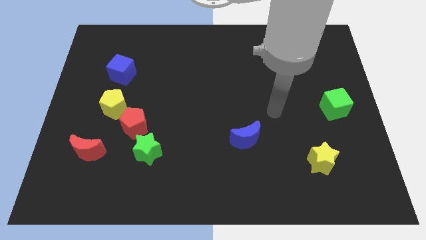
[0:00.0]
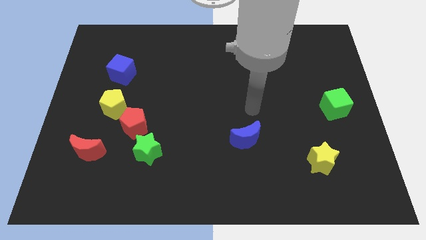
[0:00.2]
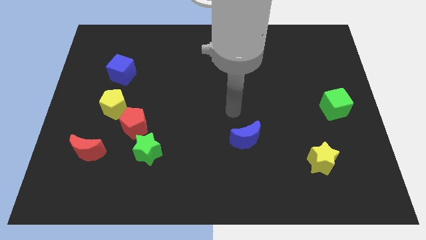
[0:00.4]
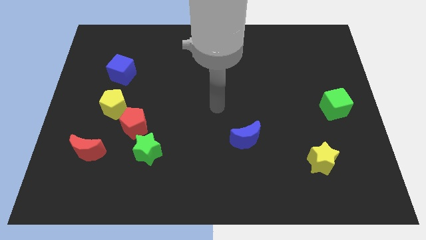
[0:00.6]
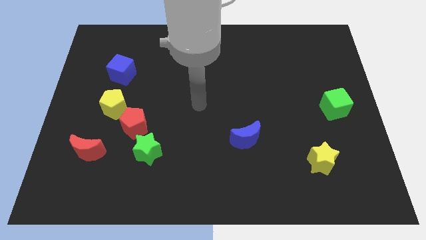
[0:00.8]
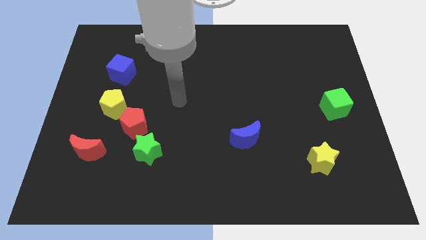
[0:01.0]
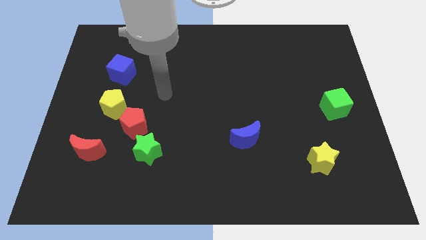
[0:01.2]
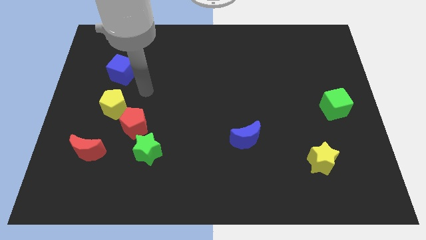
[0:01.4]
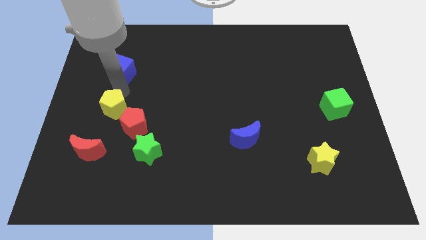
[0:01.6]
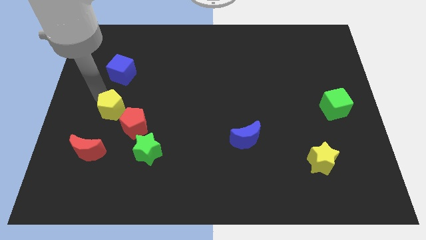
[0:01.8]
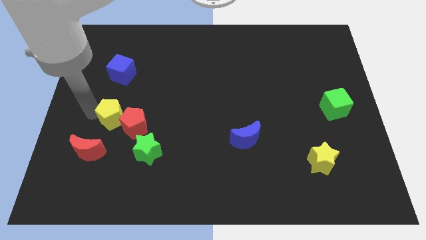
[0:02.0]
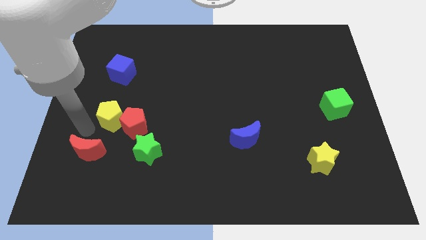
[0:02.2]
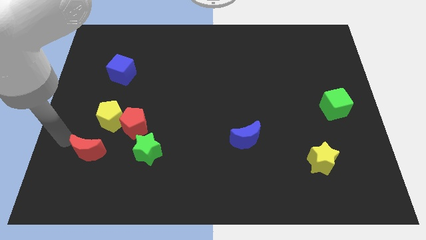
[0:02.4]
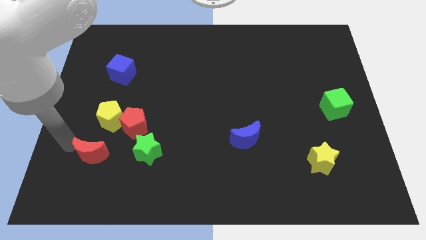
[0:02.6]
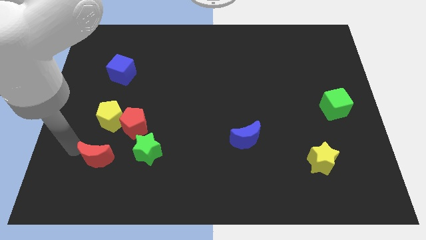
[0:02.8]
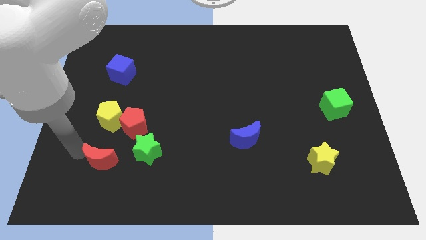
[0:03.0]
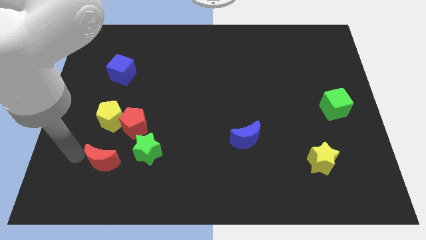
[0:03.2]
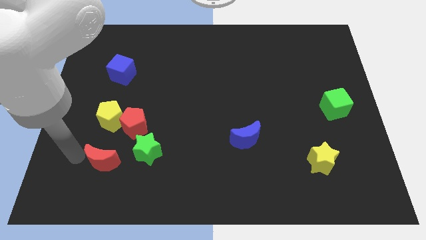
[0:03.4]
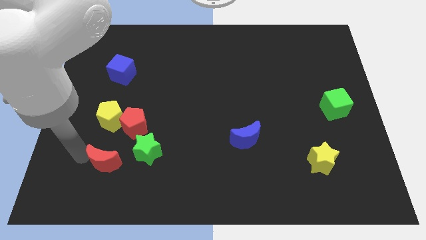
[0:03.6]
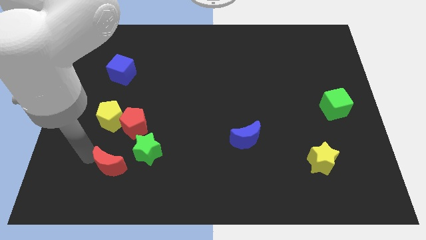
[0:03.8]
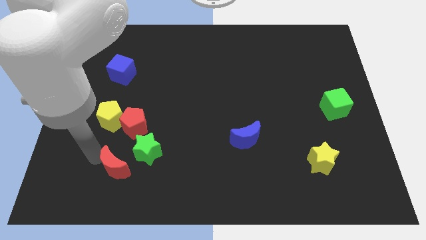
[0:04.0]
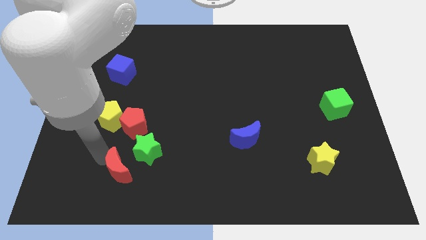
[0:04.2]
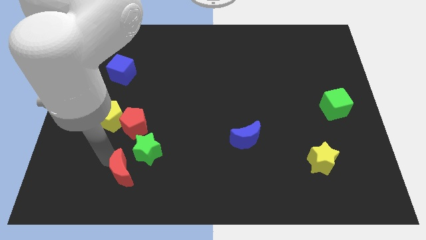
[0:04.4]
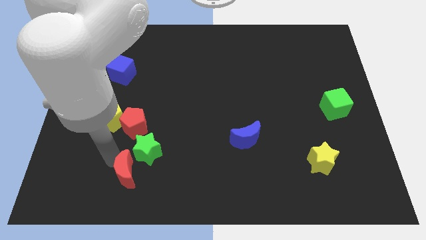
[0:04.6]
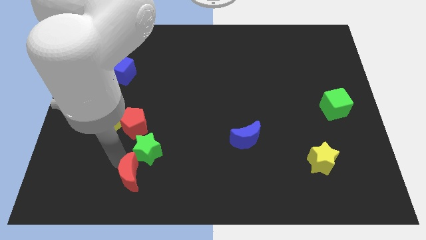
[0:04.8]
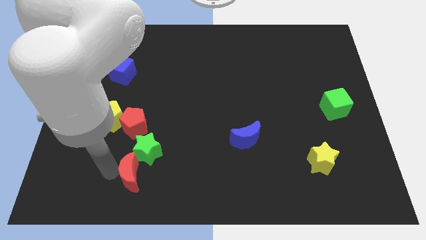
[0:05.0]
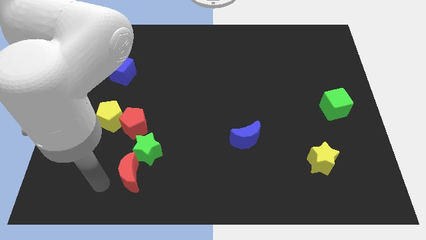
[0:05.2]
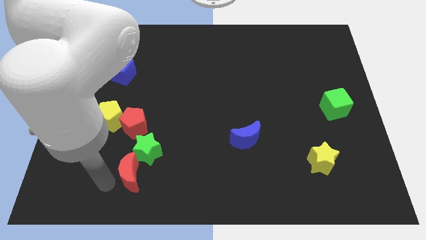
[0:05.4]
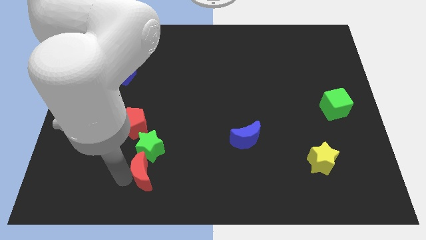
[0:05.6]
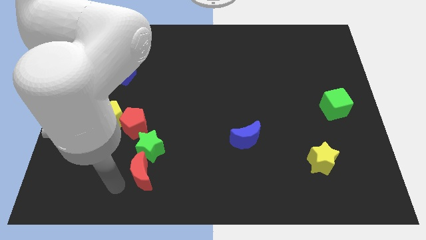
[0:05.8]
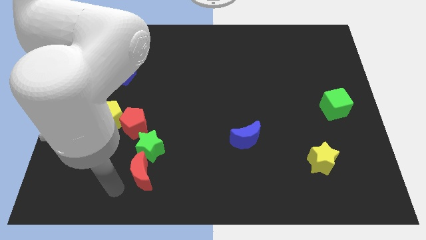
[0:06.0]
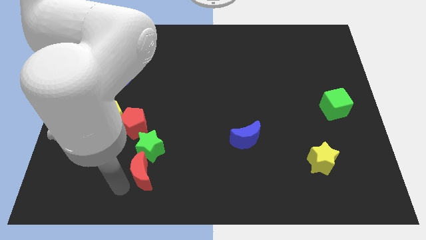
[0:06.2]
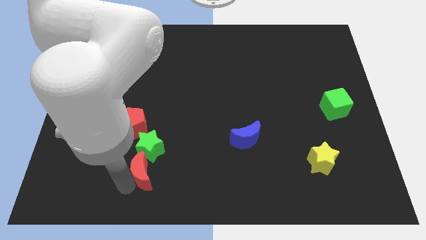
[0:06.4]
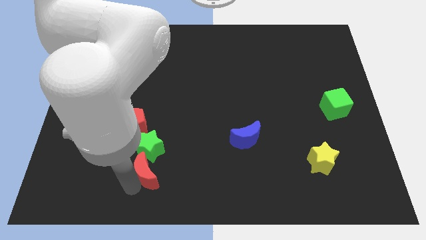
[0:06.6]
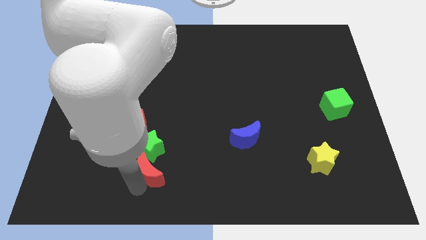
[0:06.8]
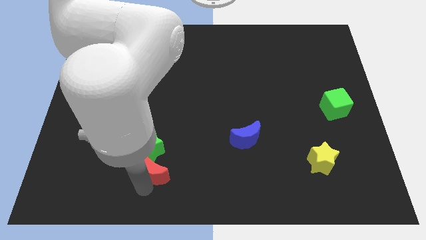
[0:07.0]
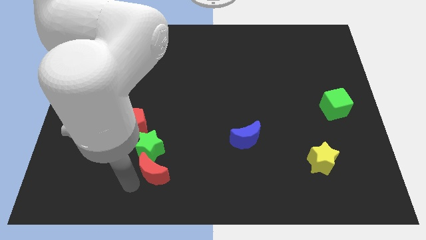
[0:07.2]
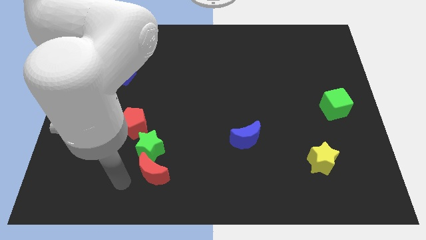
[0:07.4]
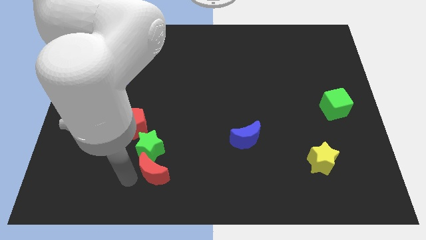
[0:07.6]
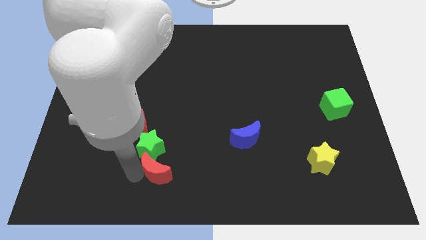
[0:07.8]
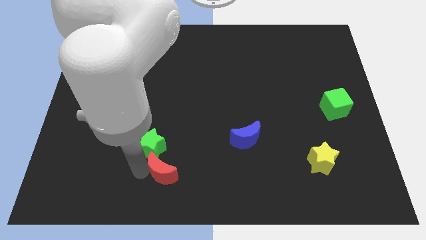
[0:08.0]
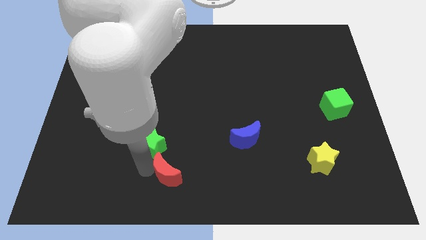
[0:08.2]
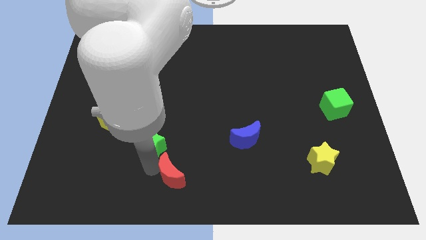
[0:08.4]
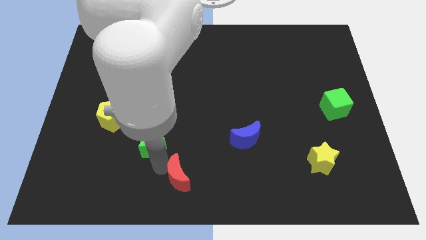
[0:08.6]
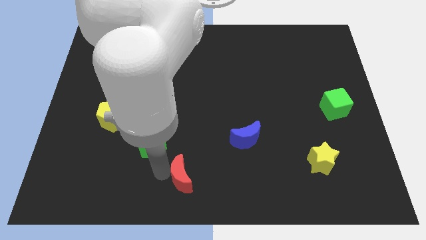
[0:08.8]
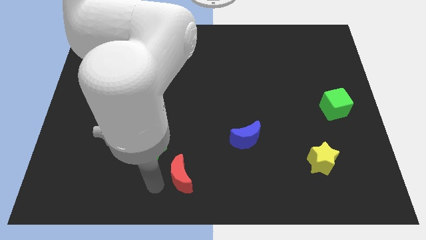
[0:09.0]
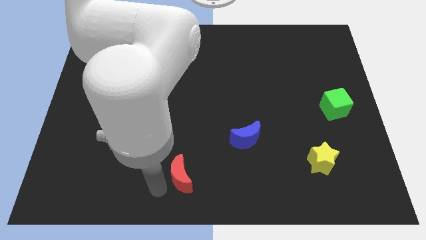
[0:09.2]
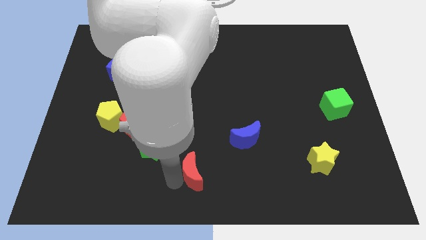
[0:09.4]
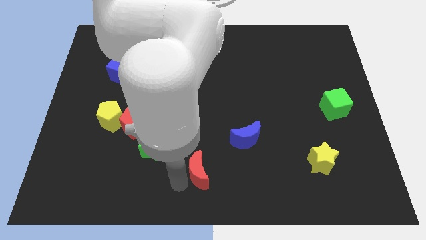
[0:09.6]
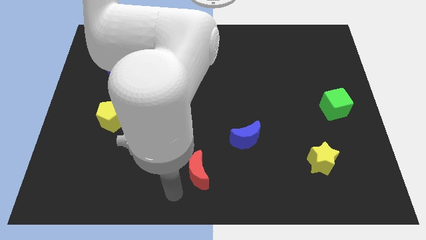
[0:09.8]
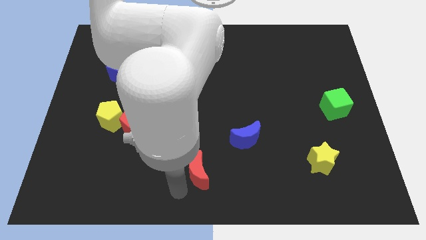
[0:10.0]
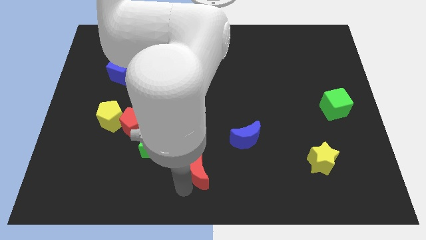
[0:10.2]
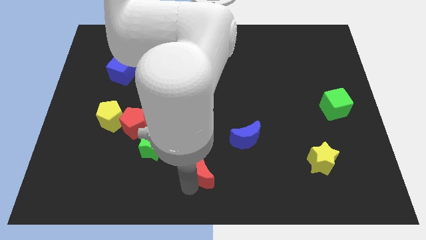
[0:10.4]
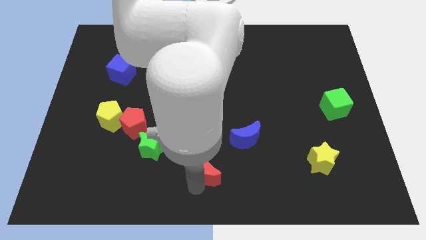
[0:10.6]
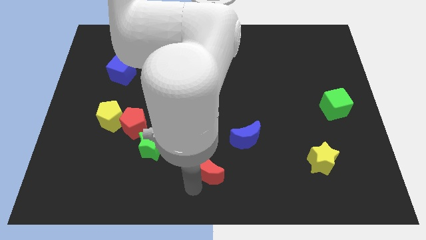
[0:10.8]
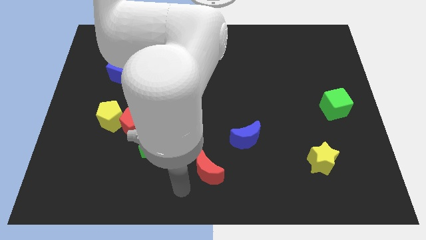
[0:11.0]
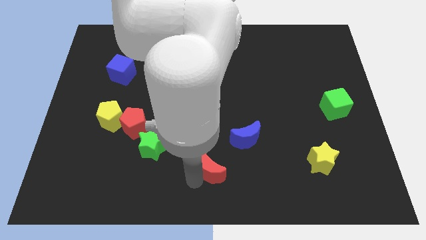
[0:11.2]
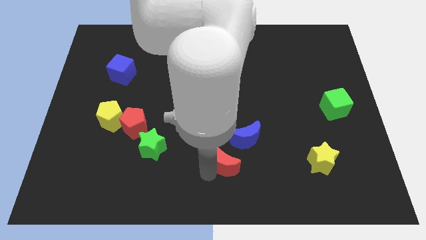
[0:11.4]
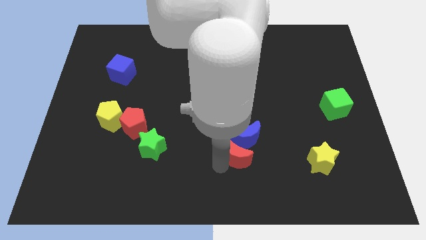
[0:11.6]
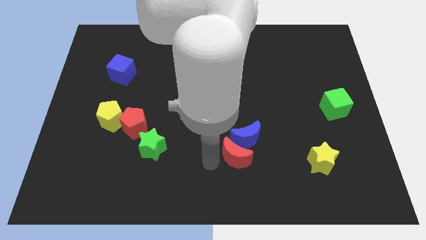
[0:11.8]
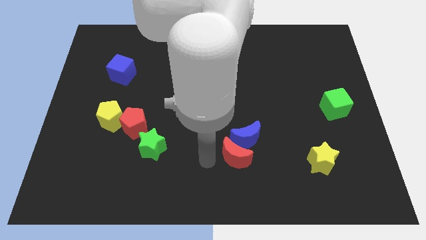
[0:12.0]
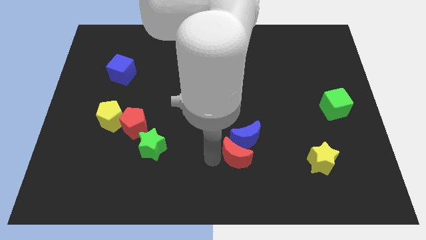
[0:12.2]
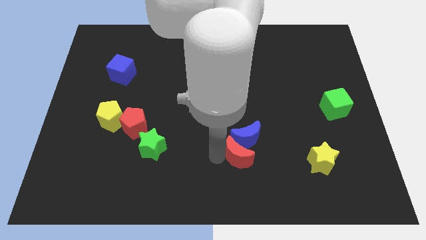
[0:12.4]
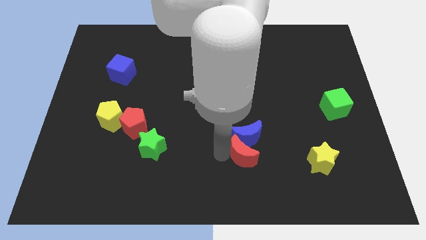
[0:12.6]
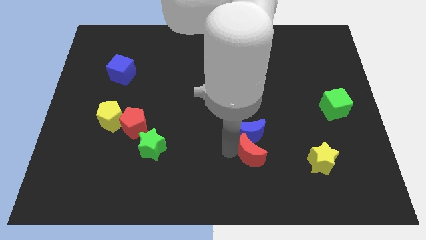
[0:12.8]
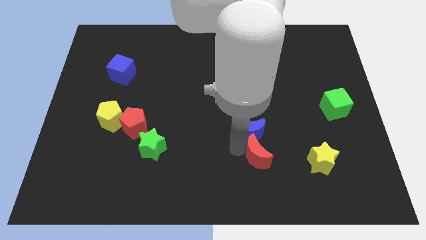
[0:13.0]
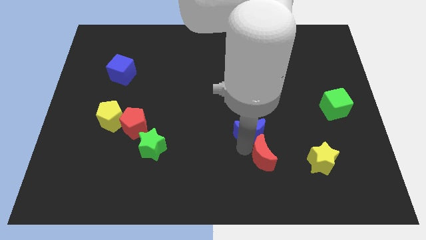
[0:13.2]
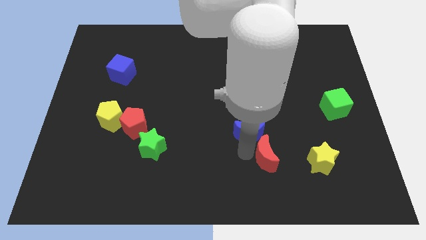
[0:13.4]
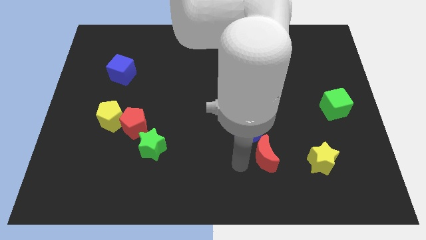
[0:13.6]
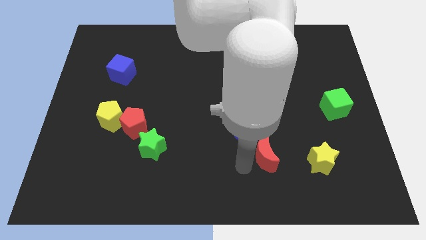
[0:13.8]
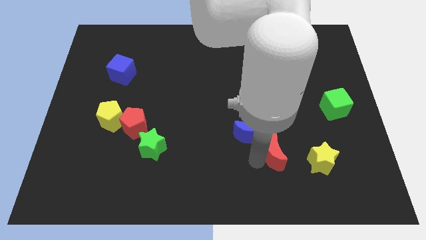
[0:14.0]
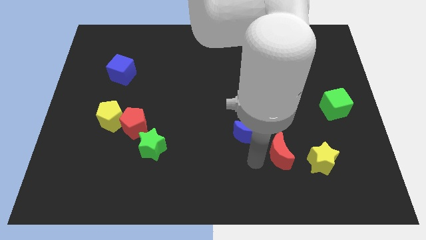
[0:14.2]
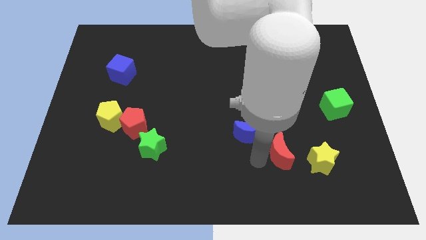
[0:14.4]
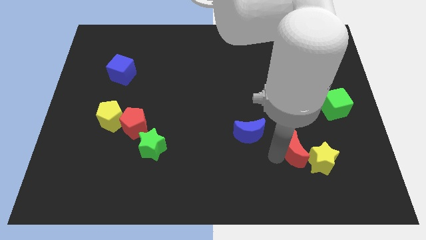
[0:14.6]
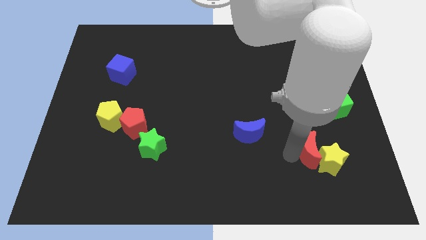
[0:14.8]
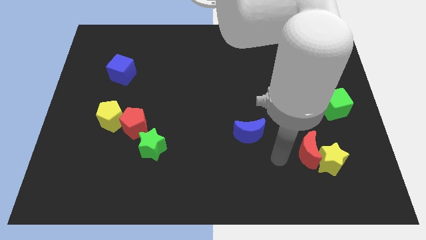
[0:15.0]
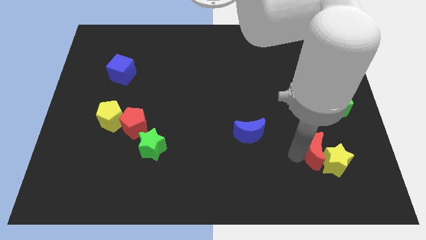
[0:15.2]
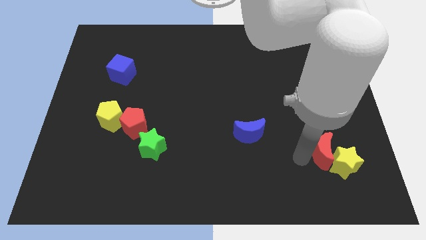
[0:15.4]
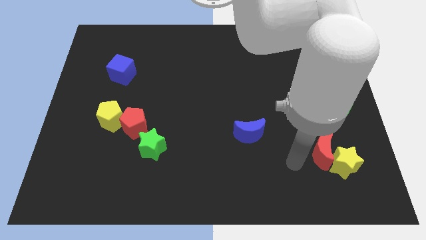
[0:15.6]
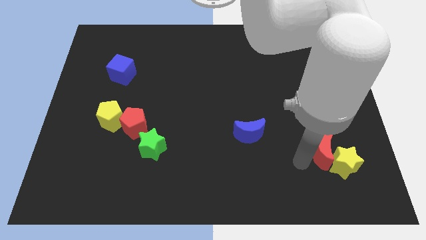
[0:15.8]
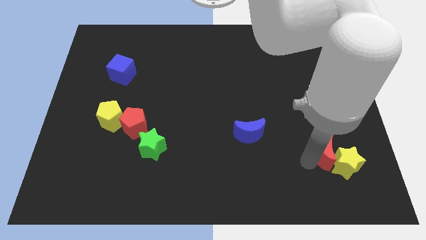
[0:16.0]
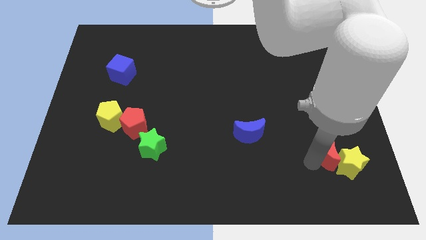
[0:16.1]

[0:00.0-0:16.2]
move the red moon below the green cube

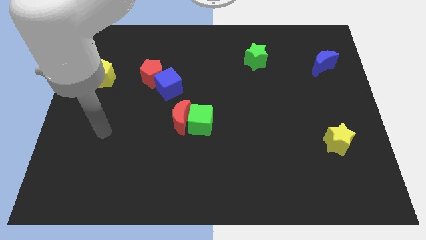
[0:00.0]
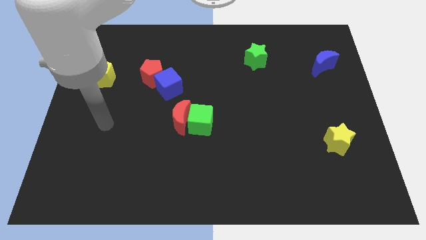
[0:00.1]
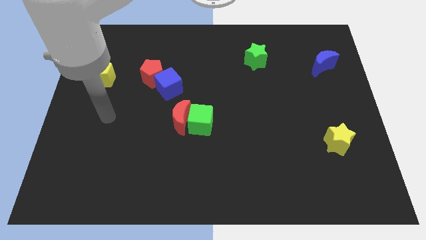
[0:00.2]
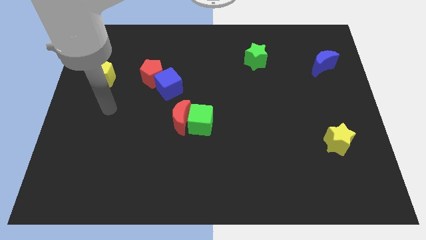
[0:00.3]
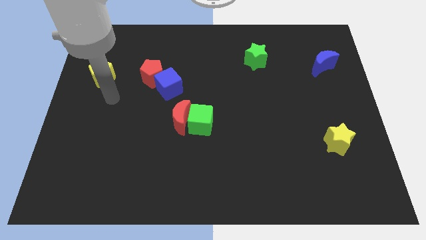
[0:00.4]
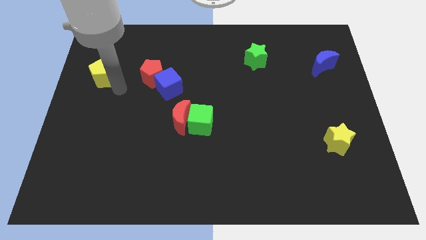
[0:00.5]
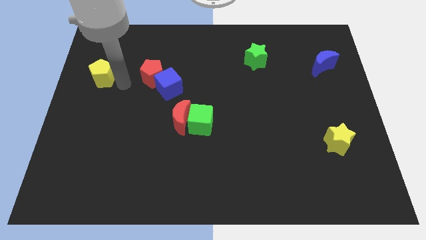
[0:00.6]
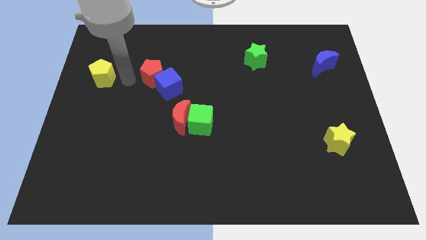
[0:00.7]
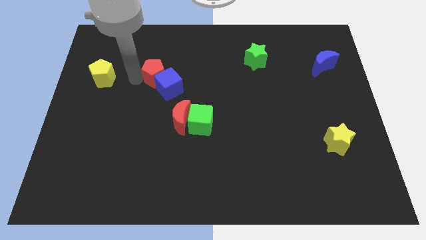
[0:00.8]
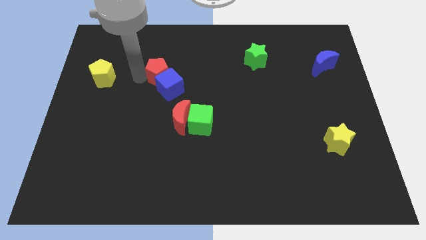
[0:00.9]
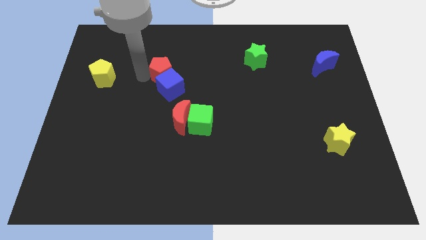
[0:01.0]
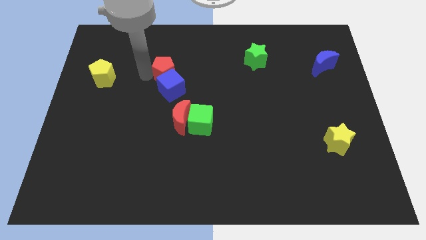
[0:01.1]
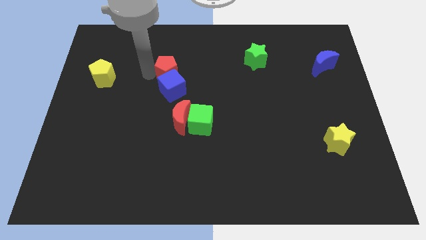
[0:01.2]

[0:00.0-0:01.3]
put the red pentagon to the top right side of the blue cube
